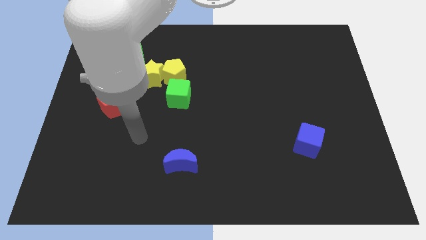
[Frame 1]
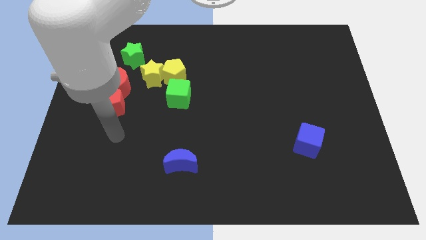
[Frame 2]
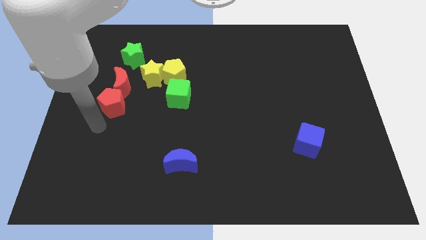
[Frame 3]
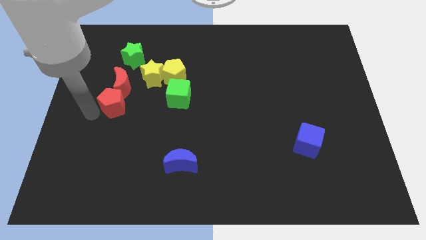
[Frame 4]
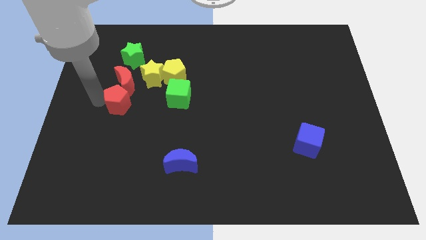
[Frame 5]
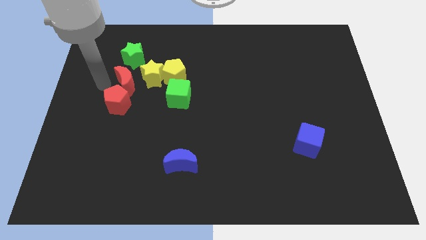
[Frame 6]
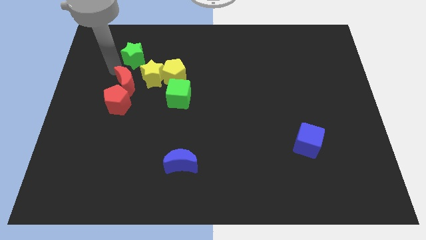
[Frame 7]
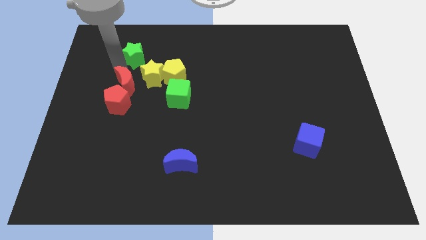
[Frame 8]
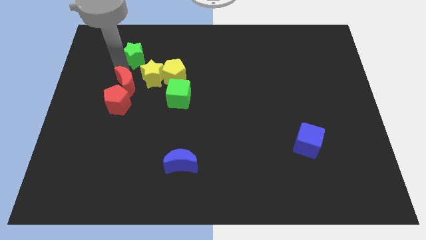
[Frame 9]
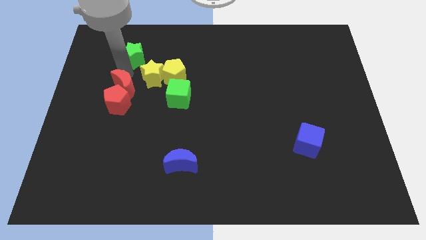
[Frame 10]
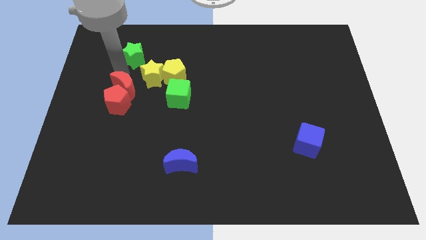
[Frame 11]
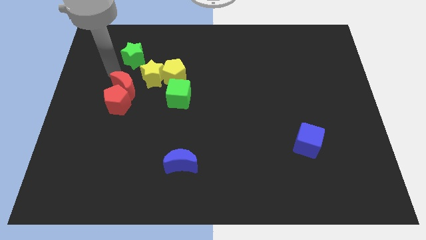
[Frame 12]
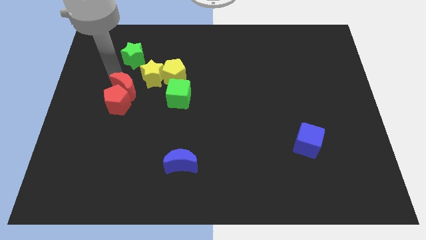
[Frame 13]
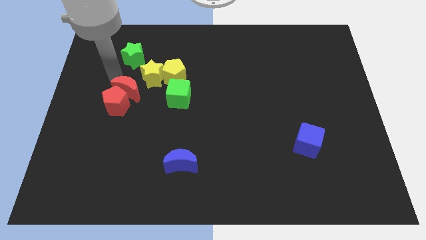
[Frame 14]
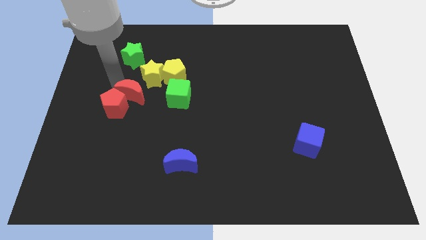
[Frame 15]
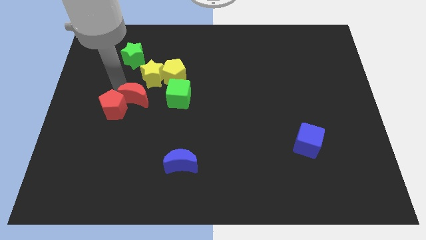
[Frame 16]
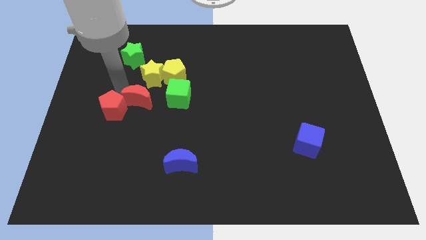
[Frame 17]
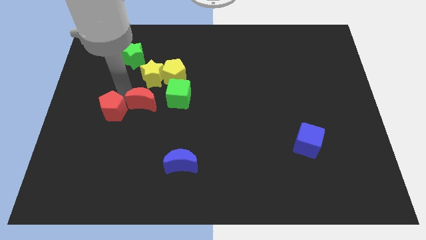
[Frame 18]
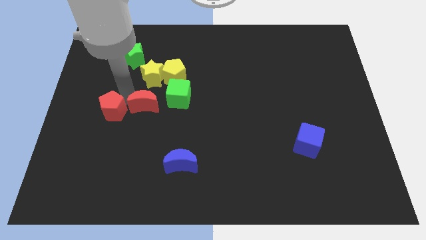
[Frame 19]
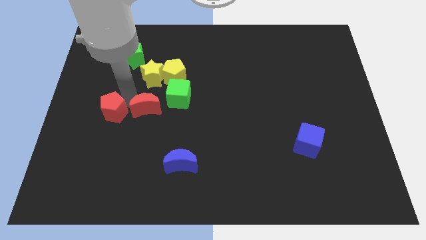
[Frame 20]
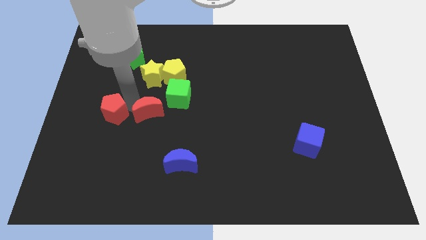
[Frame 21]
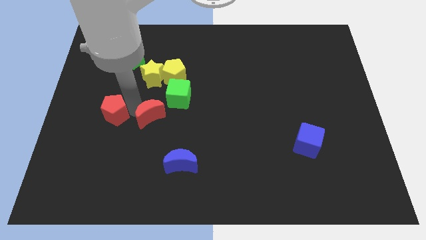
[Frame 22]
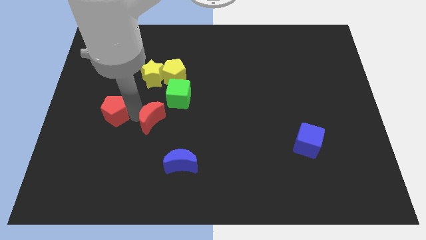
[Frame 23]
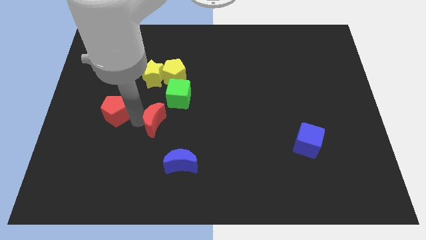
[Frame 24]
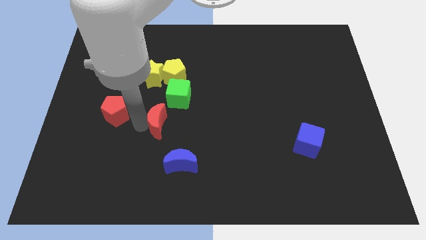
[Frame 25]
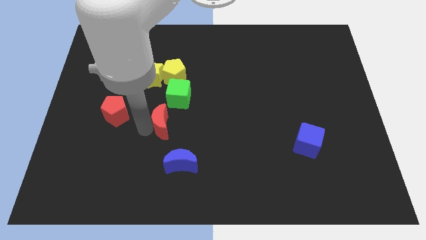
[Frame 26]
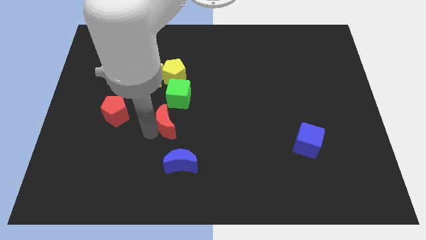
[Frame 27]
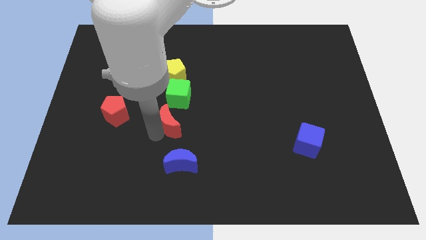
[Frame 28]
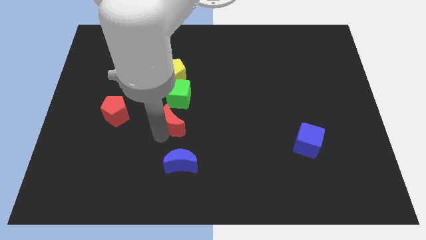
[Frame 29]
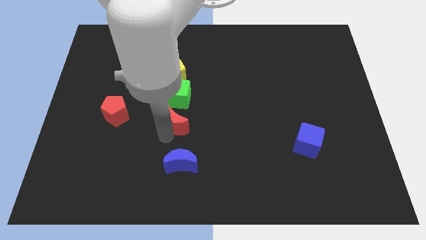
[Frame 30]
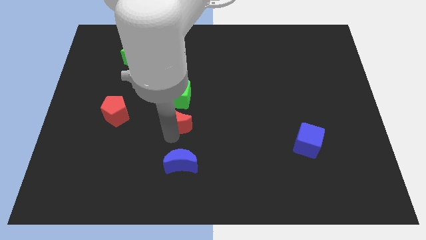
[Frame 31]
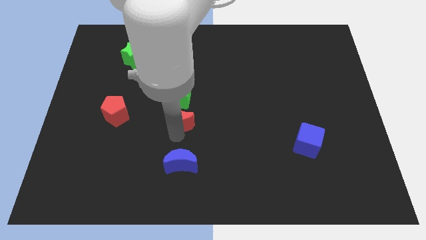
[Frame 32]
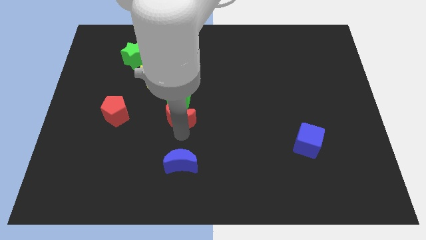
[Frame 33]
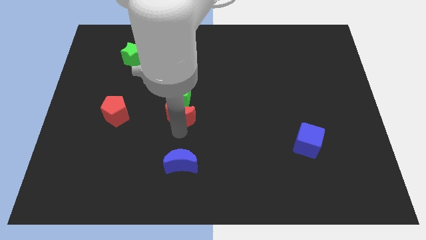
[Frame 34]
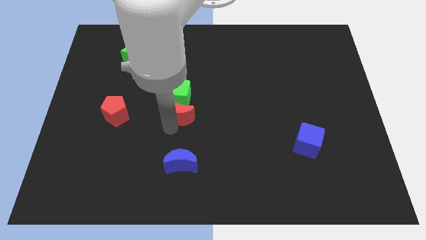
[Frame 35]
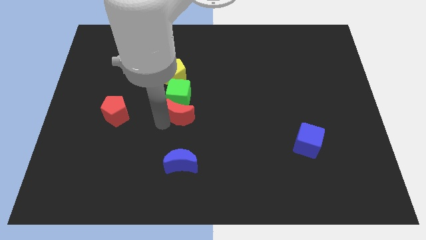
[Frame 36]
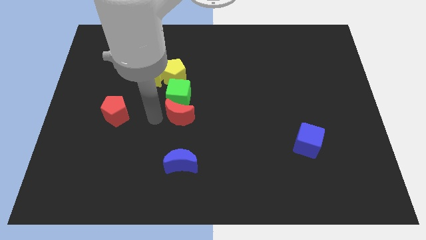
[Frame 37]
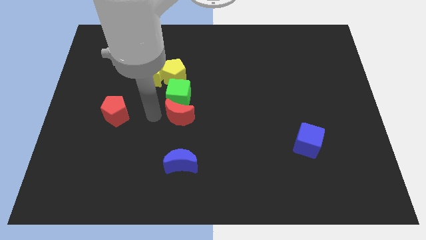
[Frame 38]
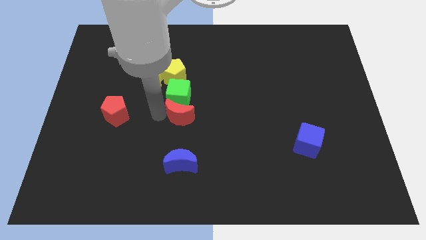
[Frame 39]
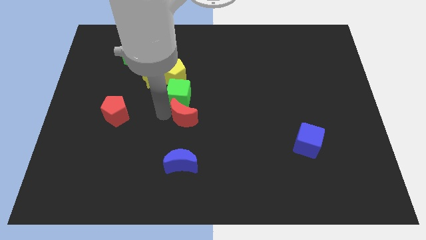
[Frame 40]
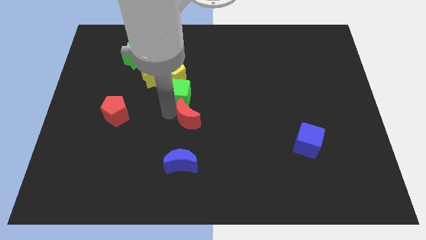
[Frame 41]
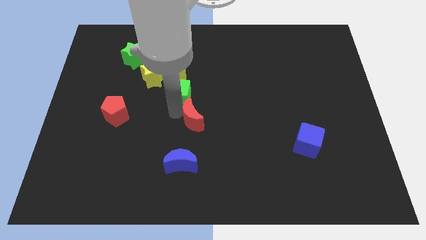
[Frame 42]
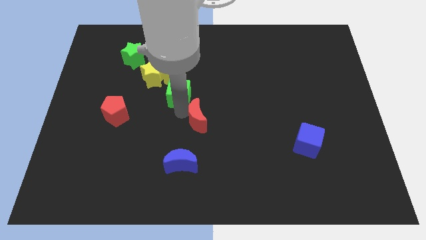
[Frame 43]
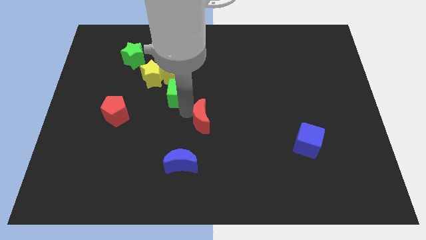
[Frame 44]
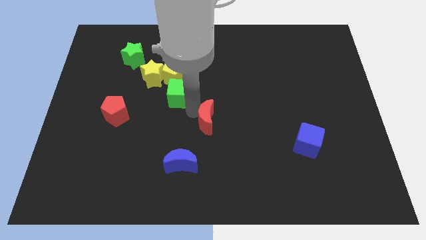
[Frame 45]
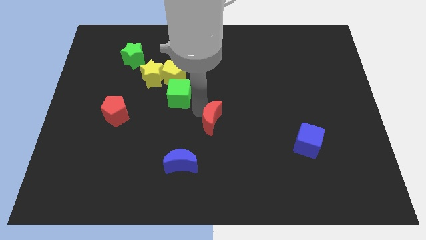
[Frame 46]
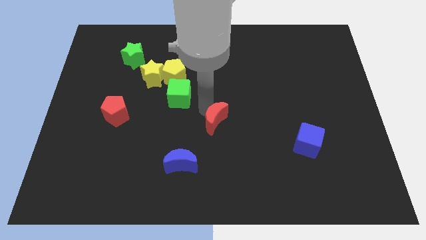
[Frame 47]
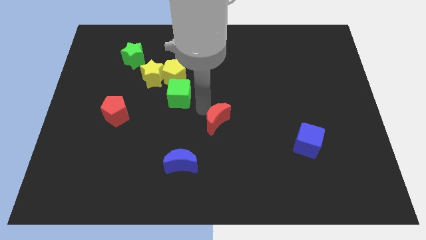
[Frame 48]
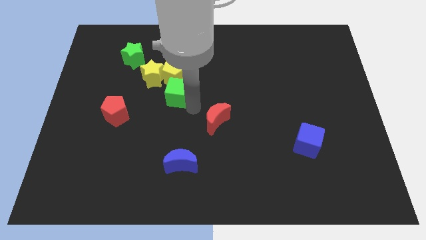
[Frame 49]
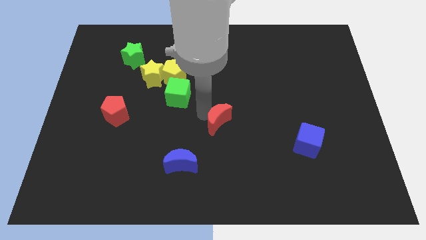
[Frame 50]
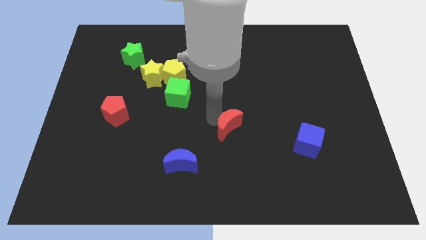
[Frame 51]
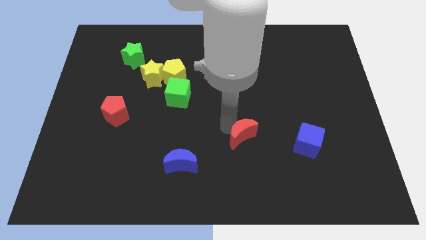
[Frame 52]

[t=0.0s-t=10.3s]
move the red moon to the left of the blue cube

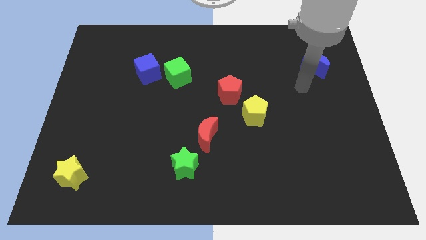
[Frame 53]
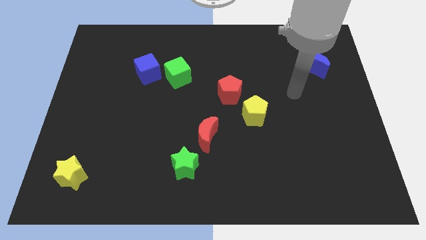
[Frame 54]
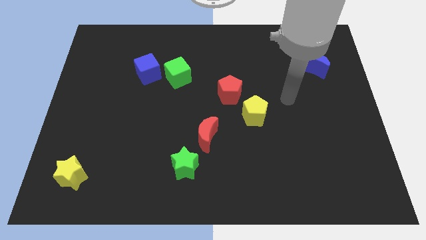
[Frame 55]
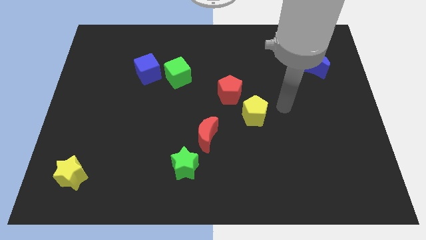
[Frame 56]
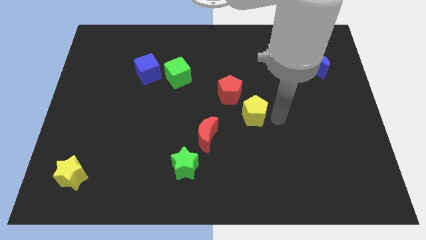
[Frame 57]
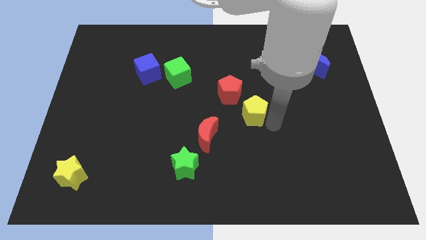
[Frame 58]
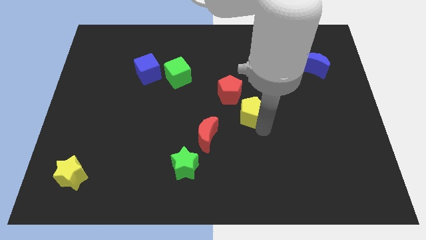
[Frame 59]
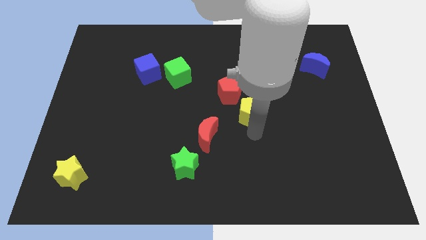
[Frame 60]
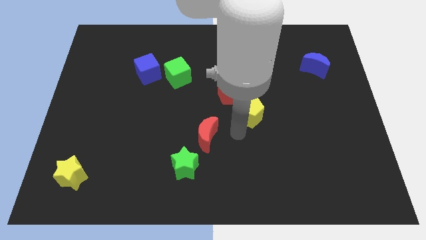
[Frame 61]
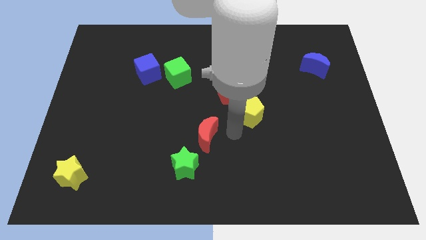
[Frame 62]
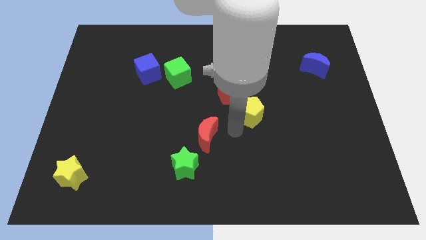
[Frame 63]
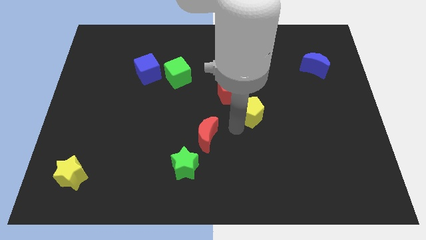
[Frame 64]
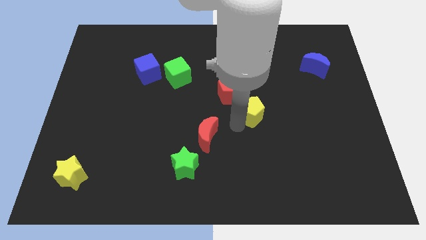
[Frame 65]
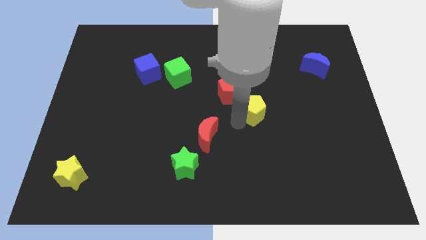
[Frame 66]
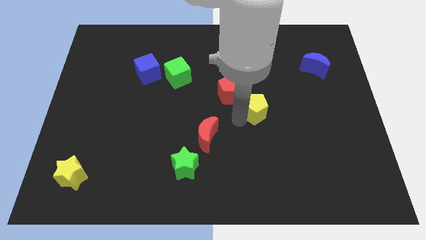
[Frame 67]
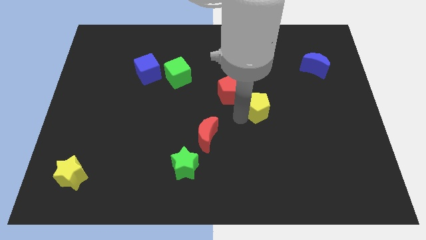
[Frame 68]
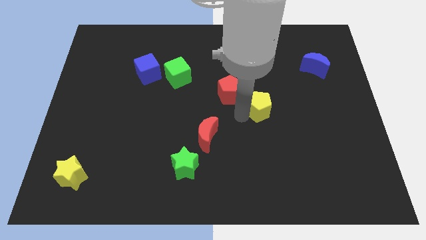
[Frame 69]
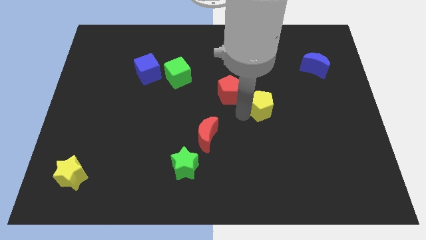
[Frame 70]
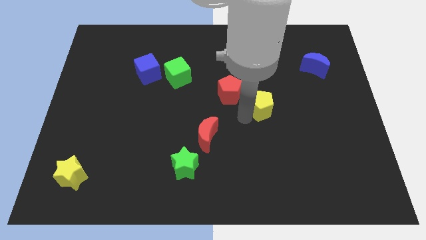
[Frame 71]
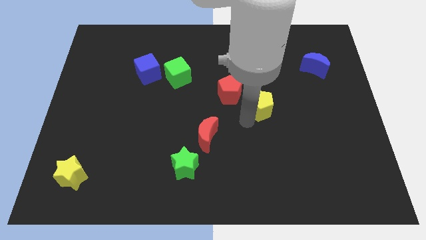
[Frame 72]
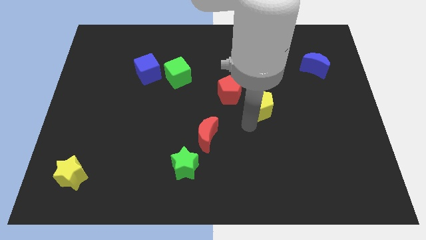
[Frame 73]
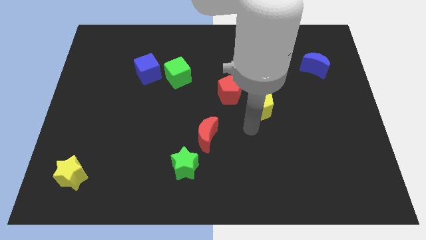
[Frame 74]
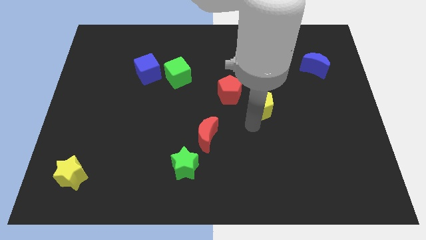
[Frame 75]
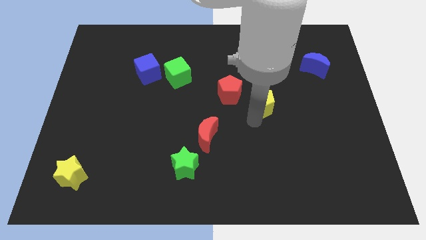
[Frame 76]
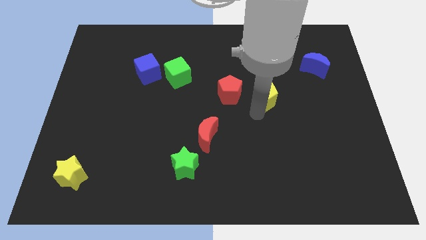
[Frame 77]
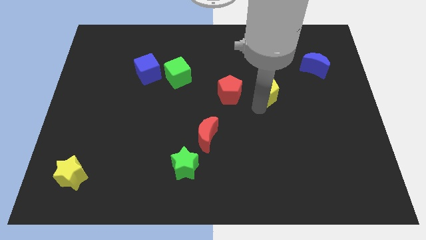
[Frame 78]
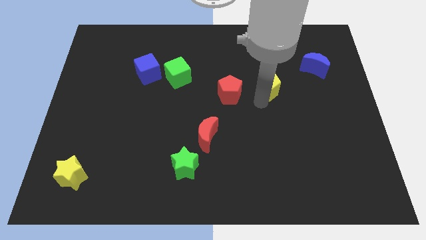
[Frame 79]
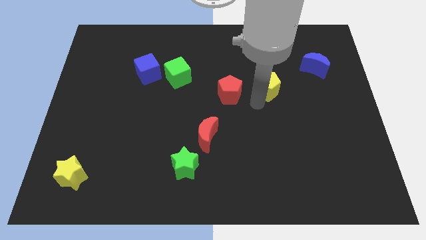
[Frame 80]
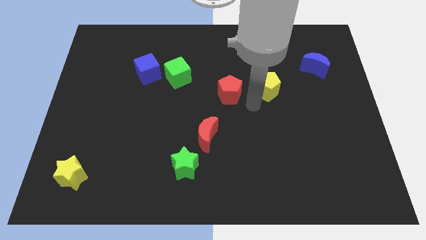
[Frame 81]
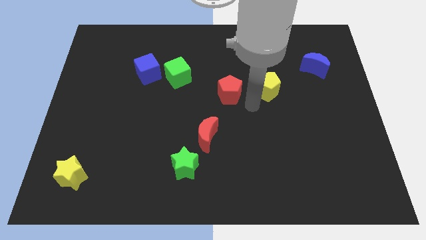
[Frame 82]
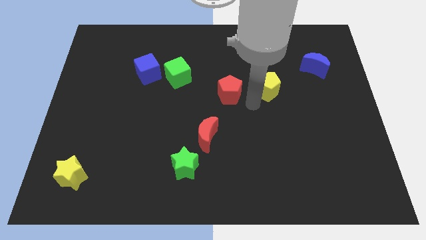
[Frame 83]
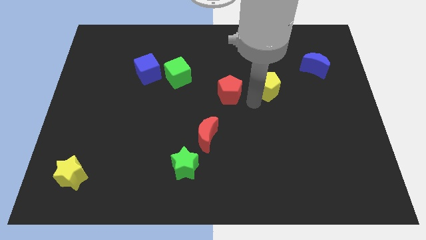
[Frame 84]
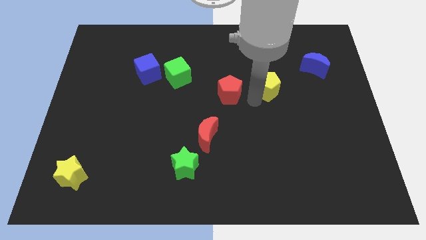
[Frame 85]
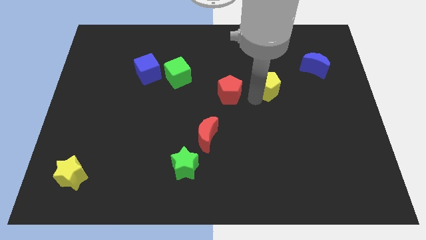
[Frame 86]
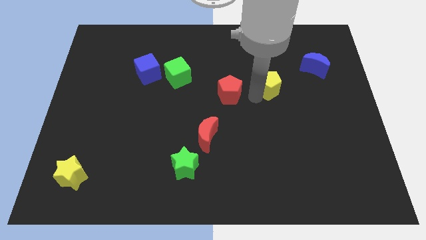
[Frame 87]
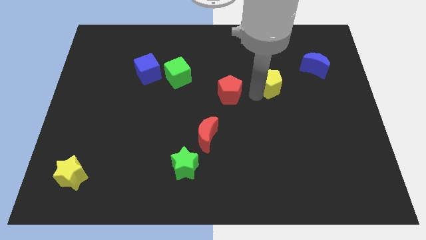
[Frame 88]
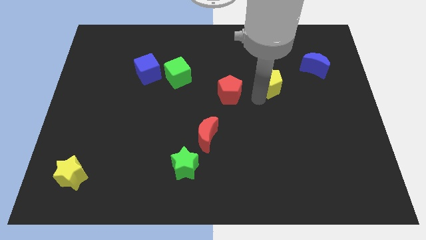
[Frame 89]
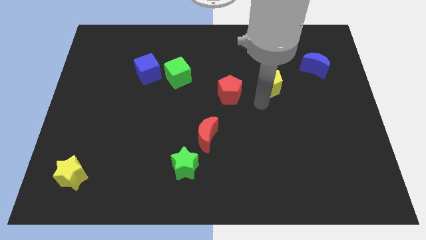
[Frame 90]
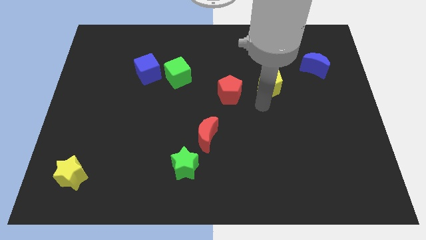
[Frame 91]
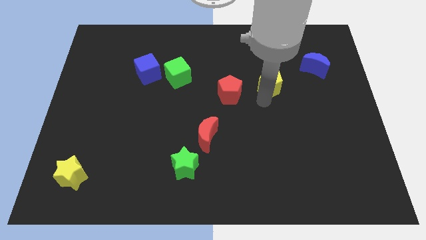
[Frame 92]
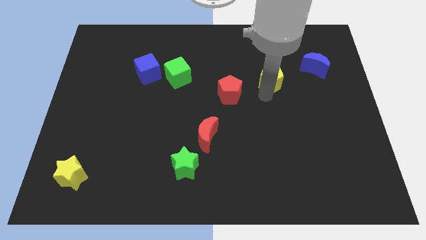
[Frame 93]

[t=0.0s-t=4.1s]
push the yellow pentagon just left of the blue moon
